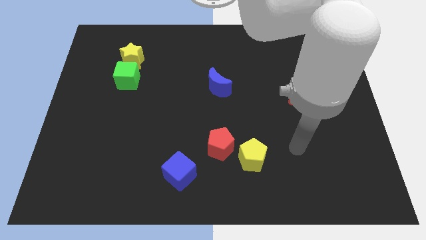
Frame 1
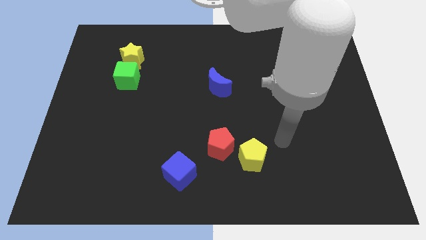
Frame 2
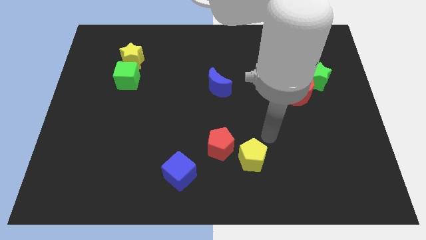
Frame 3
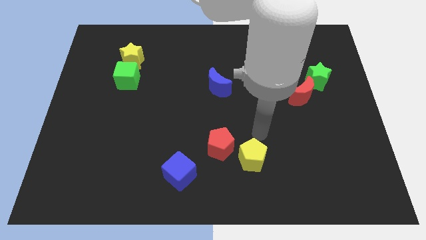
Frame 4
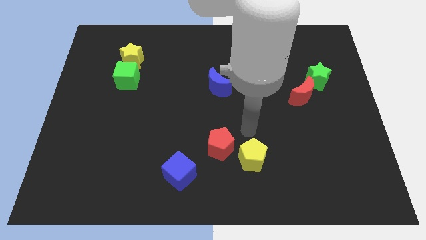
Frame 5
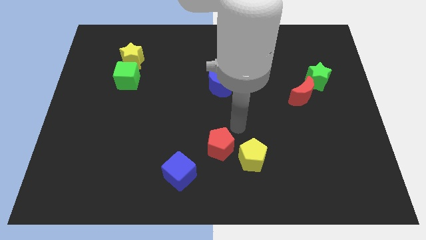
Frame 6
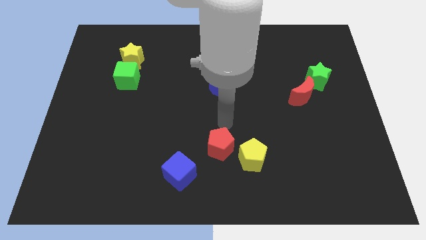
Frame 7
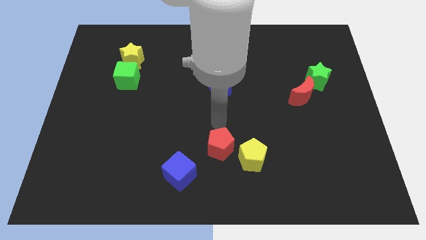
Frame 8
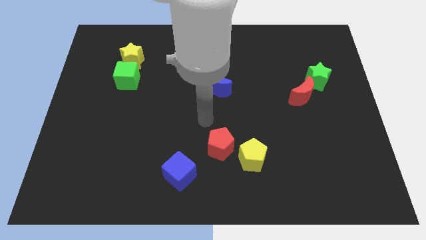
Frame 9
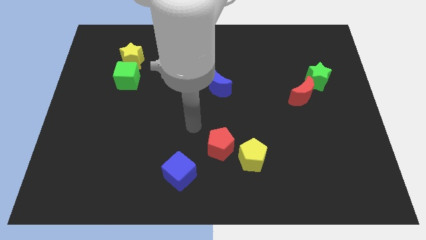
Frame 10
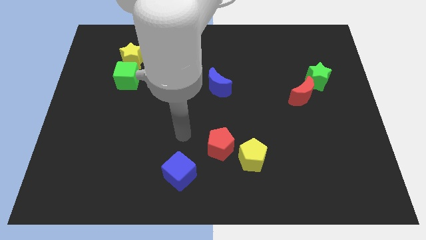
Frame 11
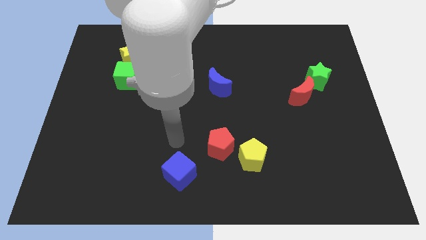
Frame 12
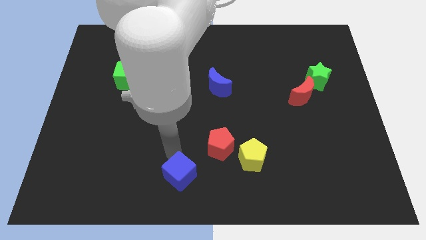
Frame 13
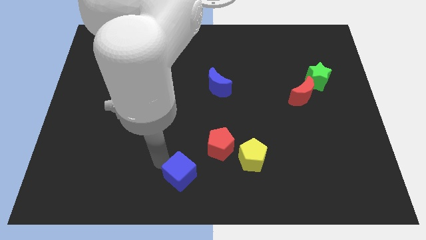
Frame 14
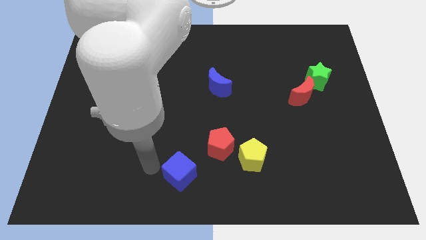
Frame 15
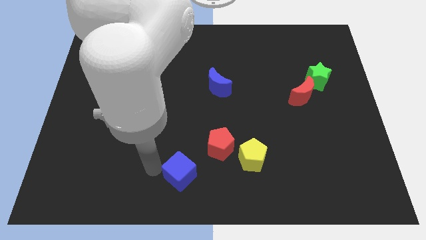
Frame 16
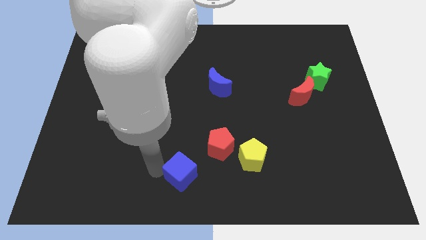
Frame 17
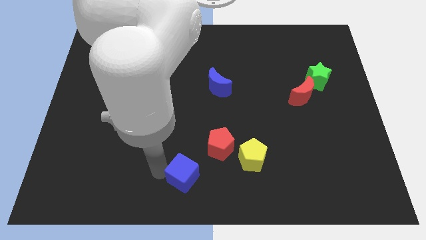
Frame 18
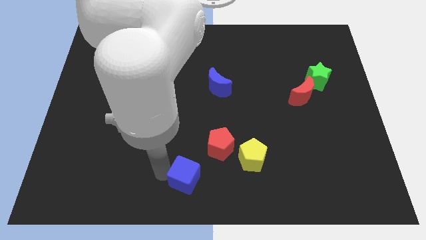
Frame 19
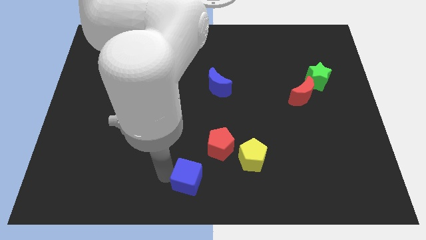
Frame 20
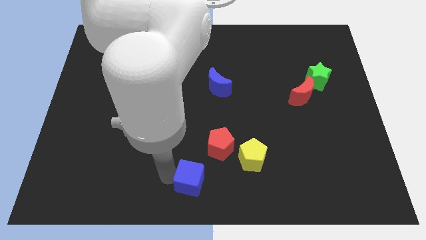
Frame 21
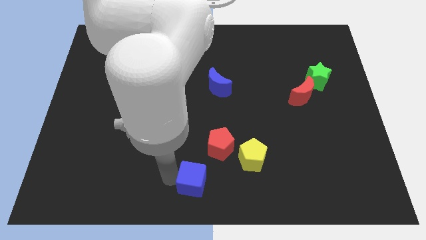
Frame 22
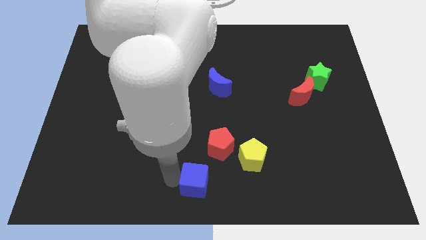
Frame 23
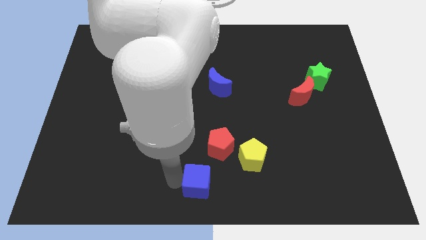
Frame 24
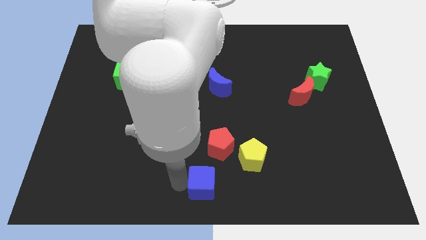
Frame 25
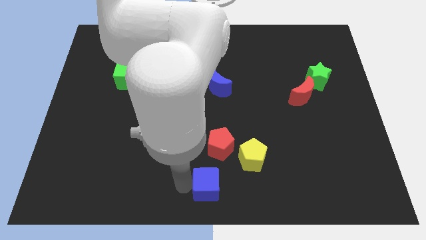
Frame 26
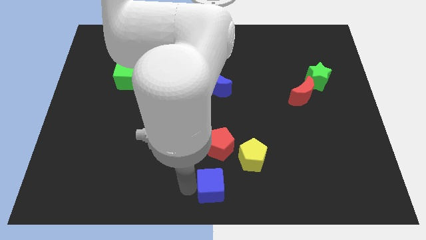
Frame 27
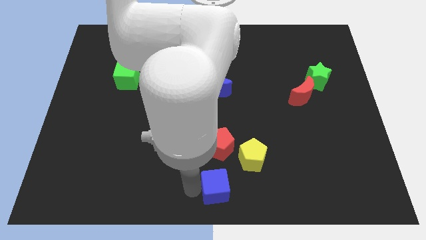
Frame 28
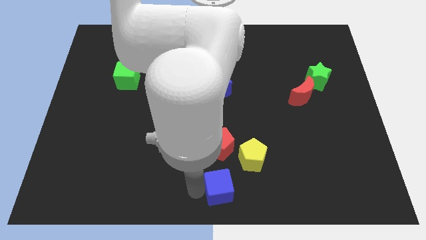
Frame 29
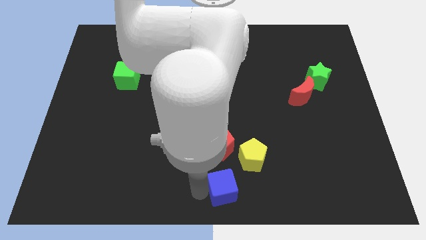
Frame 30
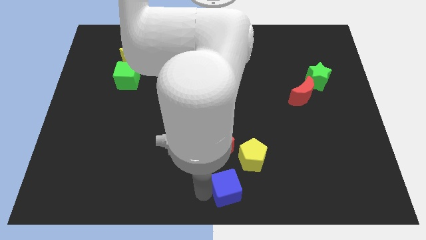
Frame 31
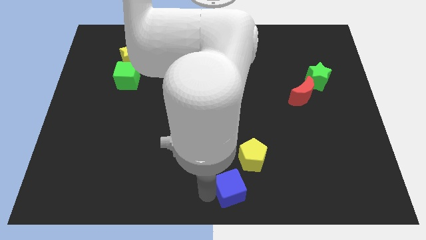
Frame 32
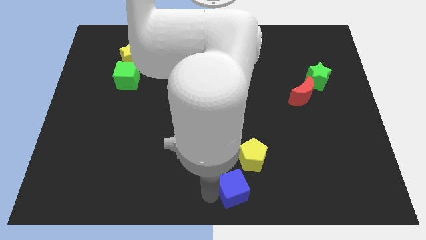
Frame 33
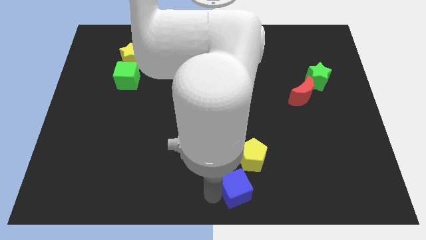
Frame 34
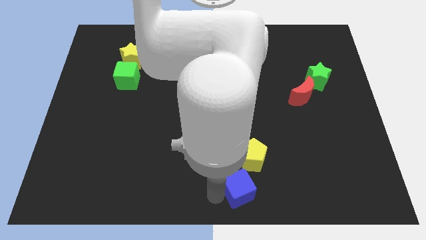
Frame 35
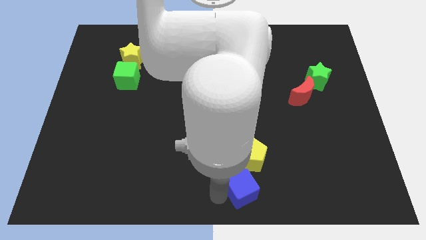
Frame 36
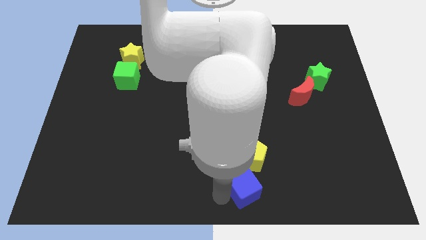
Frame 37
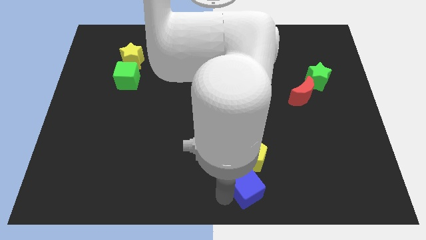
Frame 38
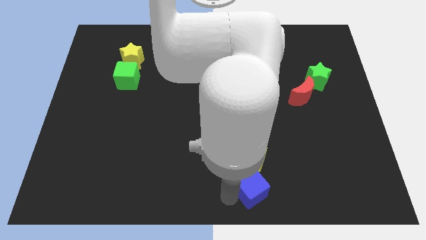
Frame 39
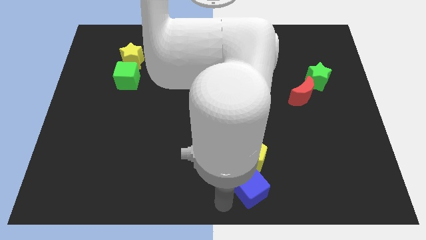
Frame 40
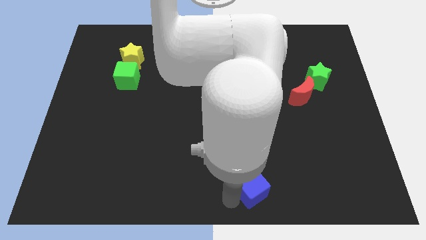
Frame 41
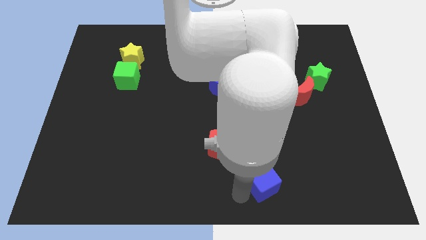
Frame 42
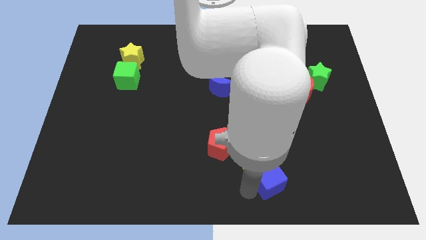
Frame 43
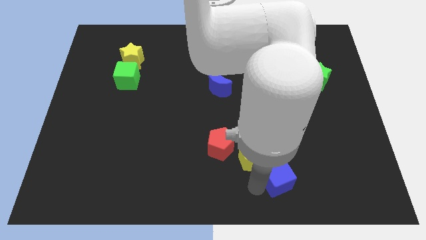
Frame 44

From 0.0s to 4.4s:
slide the blue cube right

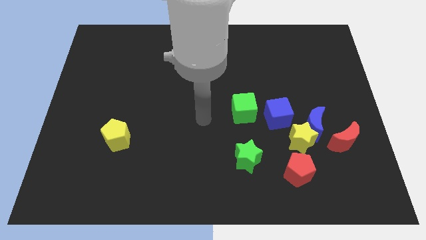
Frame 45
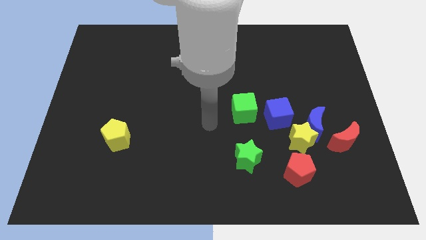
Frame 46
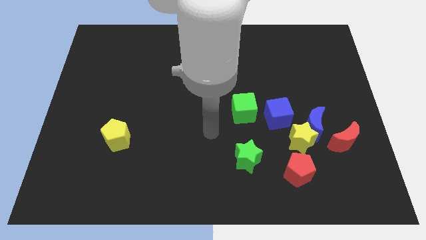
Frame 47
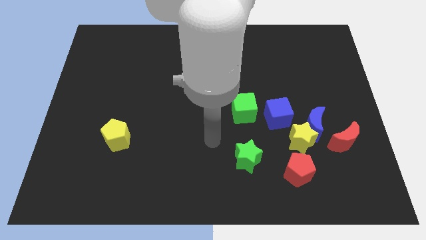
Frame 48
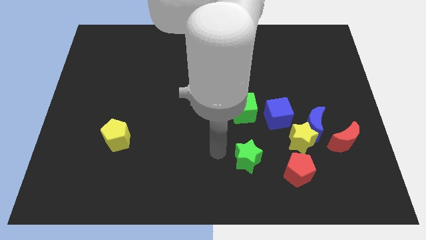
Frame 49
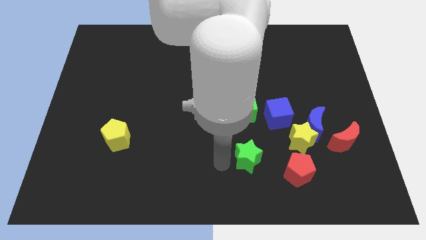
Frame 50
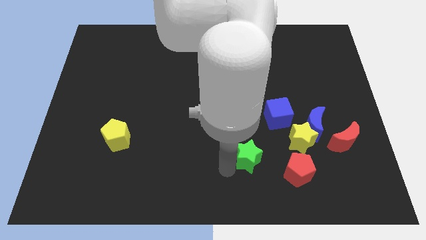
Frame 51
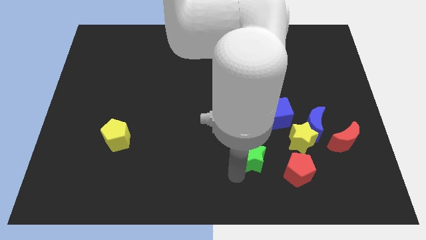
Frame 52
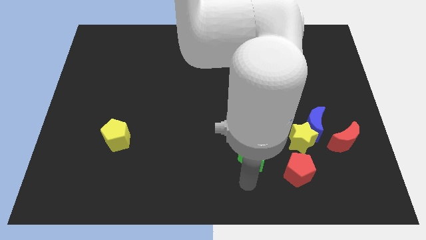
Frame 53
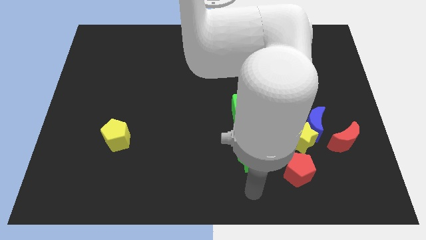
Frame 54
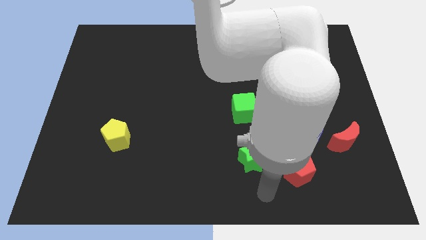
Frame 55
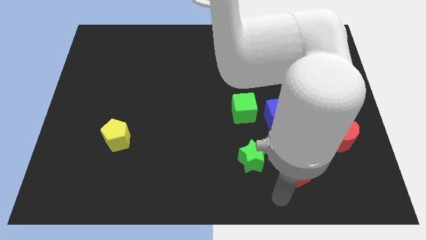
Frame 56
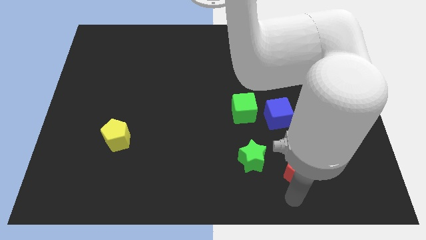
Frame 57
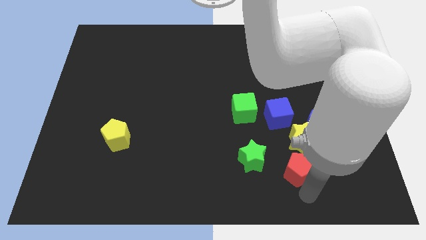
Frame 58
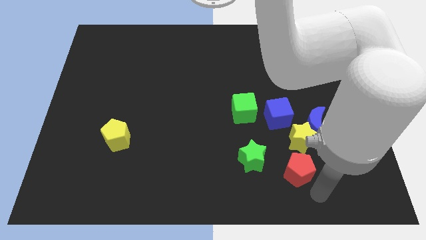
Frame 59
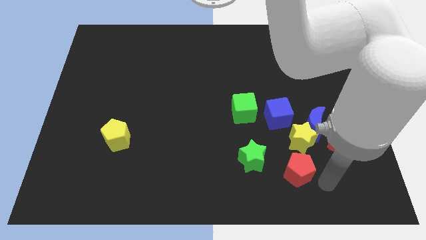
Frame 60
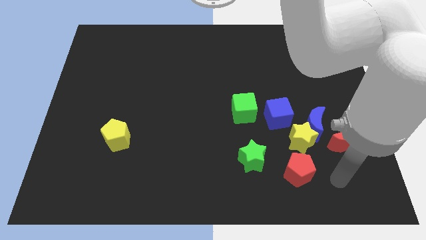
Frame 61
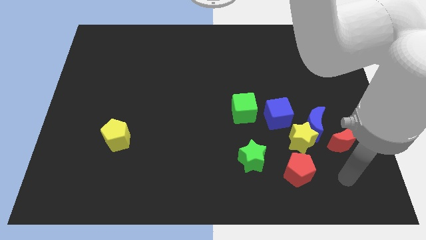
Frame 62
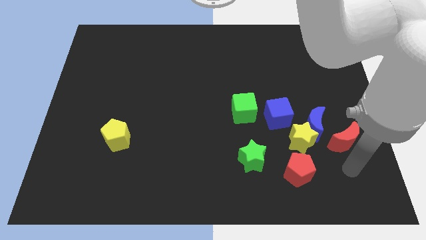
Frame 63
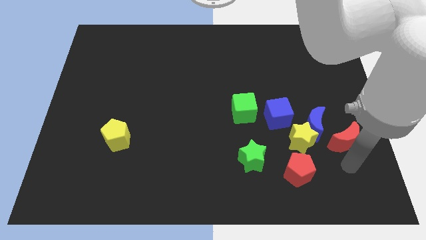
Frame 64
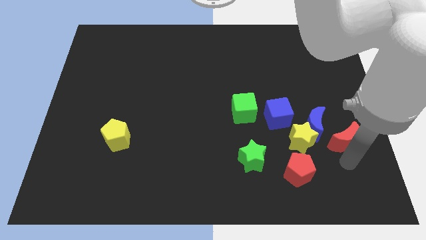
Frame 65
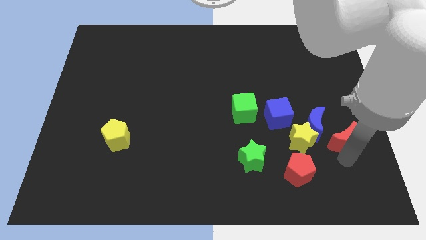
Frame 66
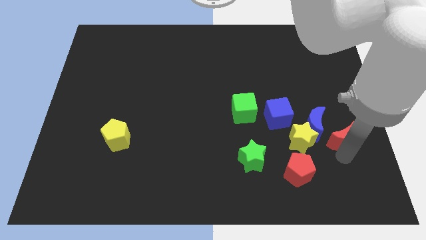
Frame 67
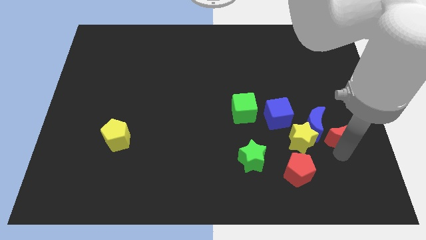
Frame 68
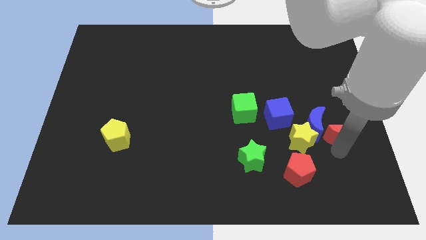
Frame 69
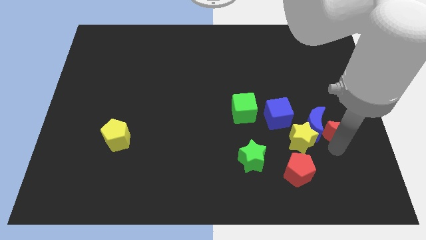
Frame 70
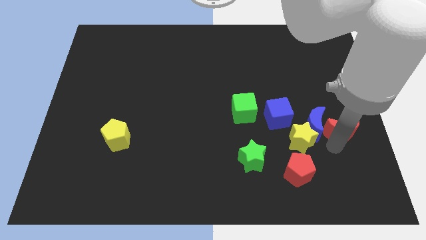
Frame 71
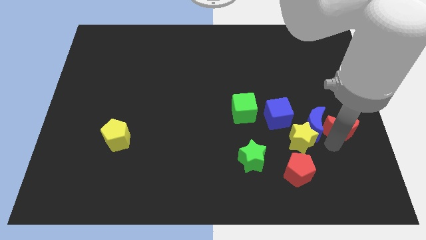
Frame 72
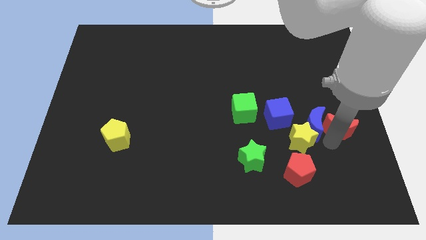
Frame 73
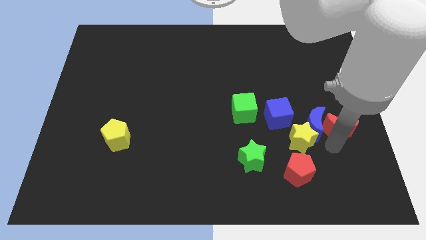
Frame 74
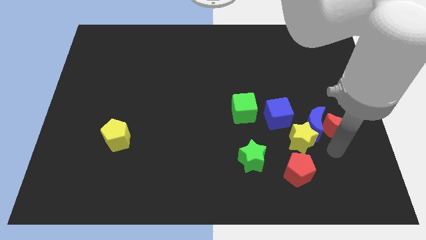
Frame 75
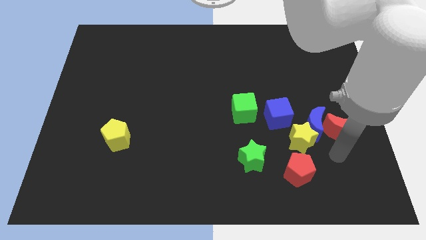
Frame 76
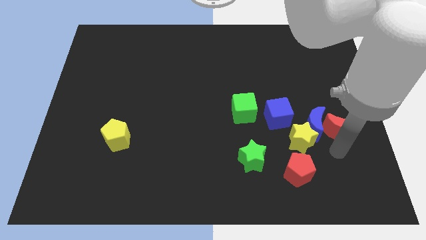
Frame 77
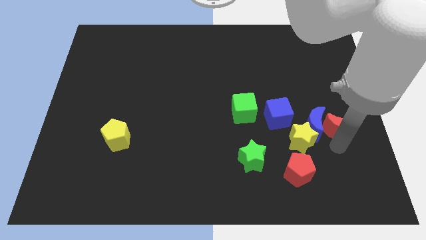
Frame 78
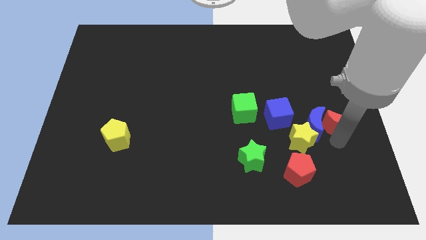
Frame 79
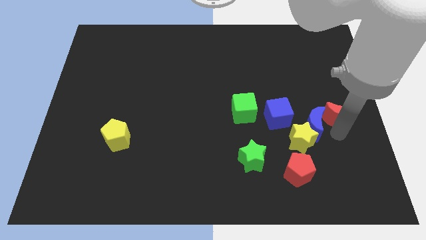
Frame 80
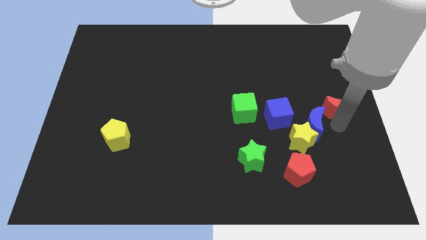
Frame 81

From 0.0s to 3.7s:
slide the red moon up somewhat
